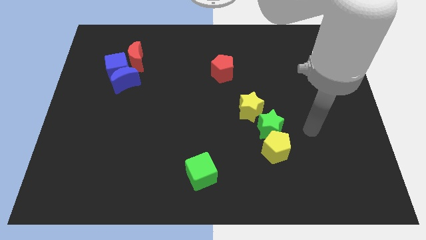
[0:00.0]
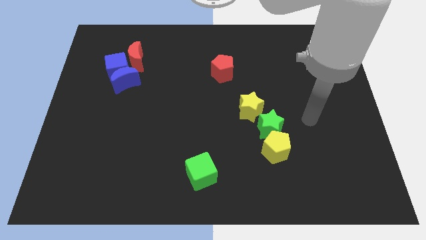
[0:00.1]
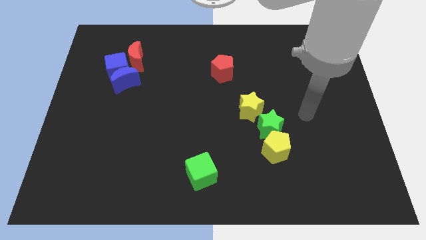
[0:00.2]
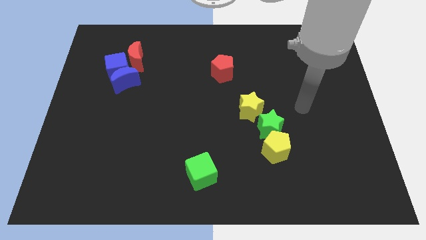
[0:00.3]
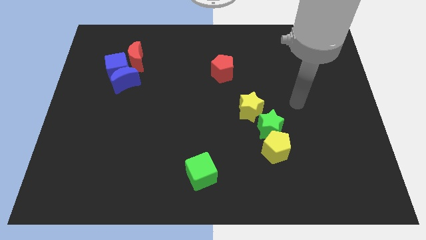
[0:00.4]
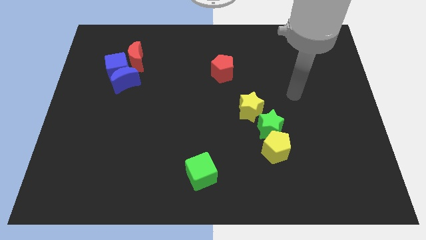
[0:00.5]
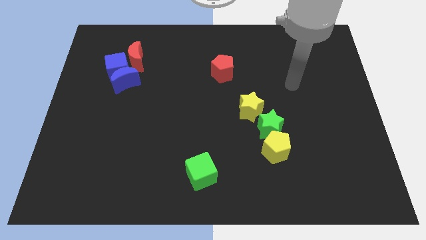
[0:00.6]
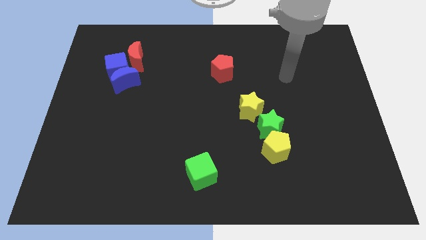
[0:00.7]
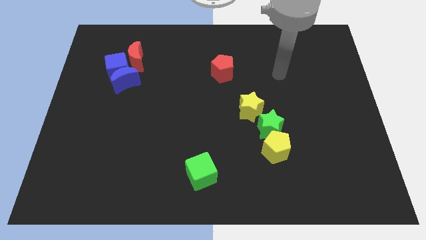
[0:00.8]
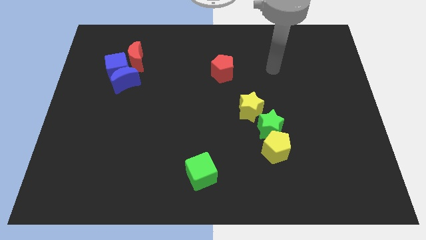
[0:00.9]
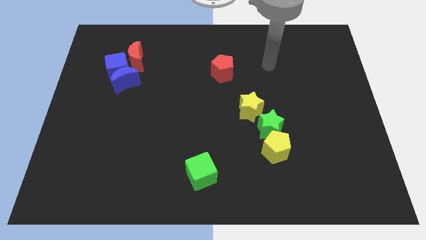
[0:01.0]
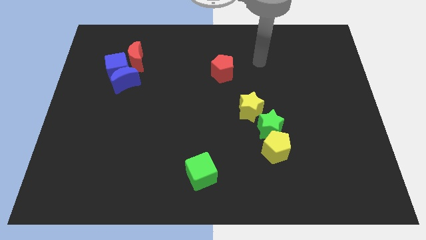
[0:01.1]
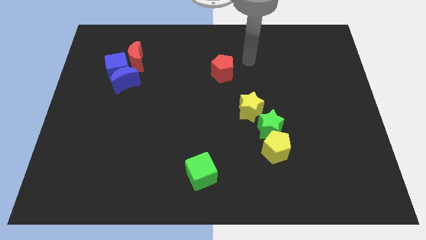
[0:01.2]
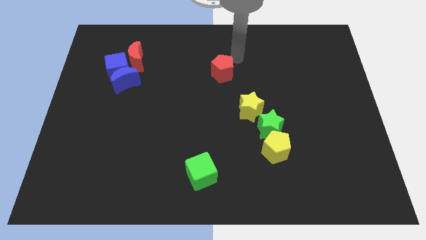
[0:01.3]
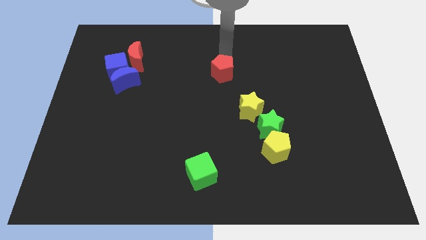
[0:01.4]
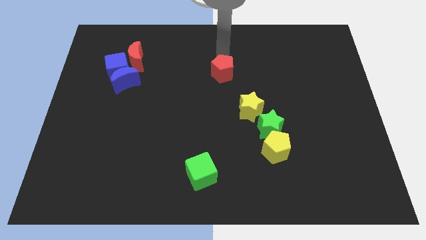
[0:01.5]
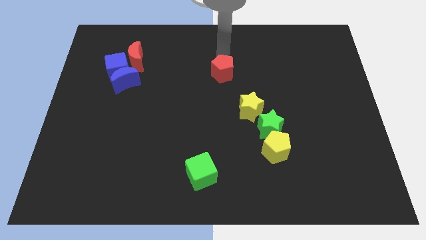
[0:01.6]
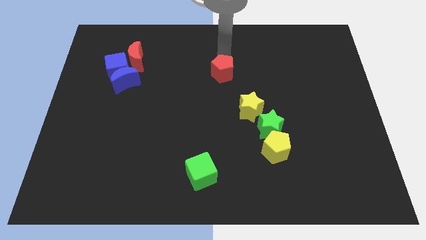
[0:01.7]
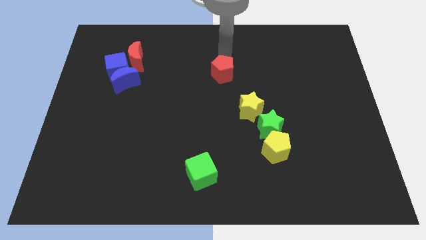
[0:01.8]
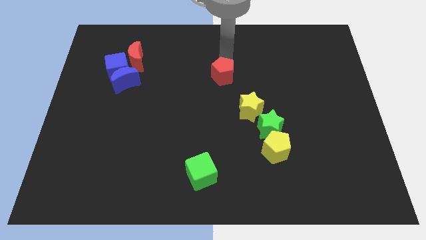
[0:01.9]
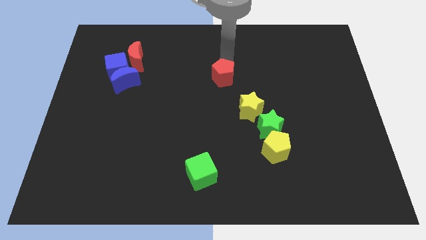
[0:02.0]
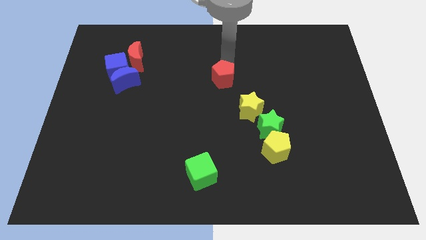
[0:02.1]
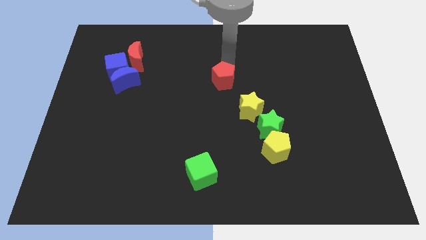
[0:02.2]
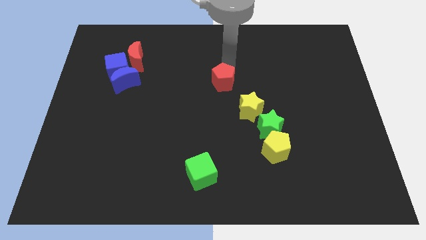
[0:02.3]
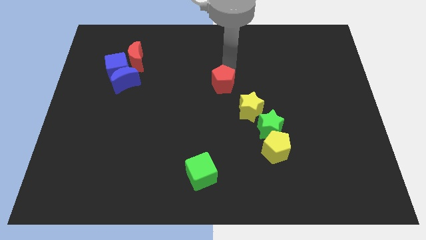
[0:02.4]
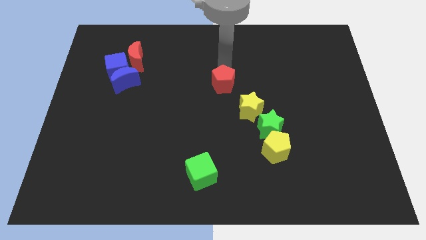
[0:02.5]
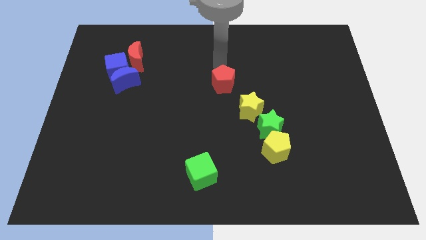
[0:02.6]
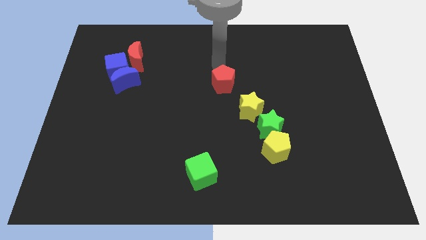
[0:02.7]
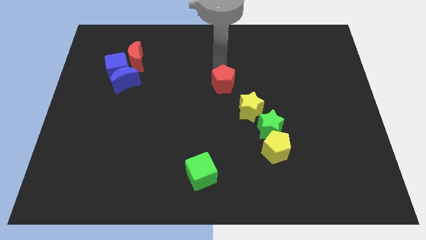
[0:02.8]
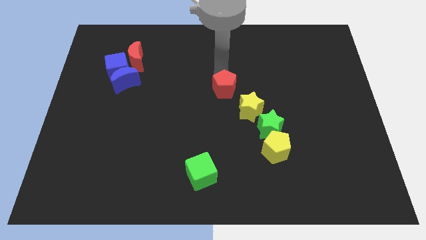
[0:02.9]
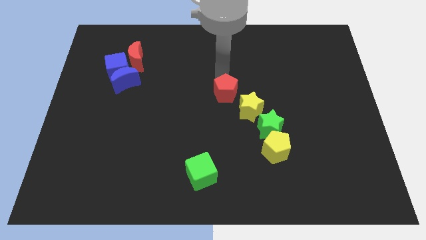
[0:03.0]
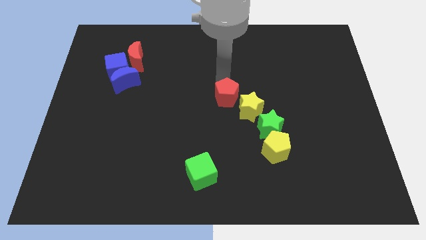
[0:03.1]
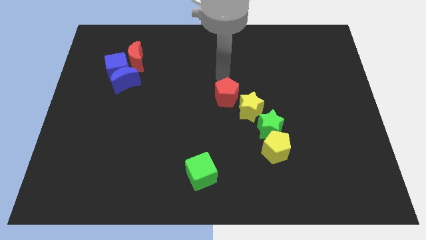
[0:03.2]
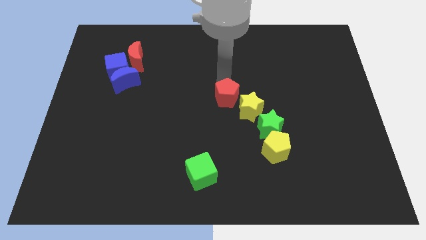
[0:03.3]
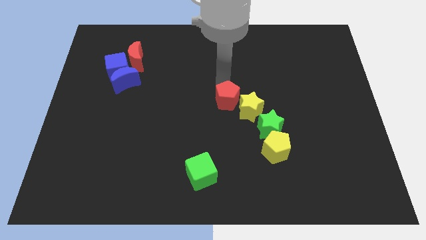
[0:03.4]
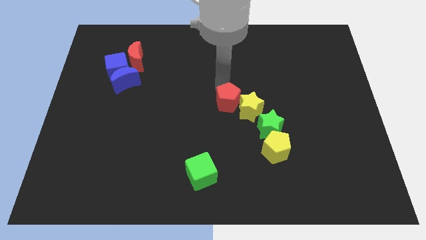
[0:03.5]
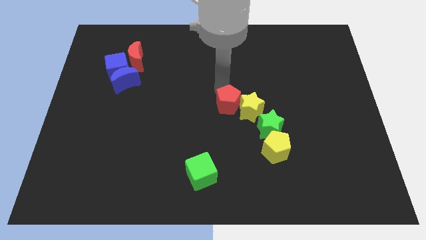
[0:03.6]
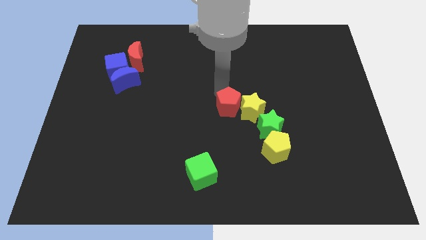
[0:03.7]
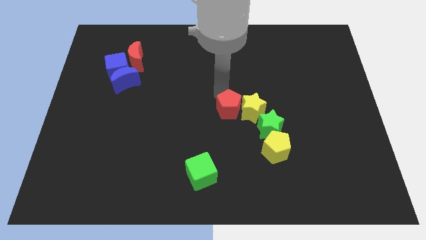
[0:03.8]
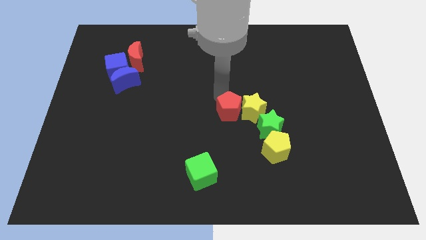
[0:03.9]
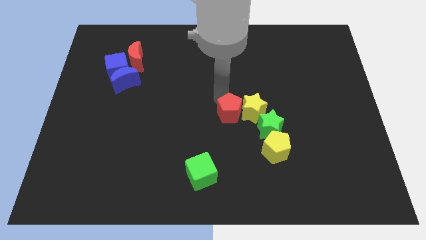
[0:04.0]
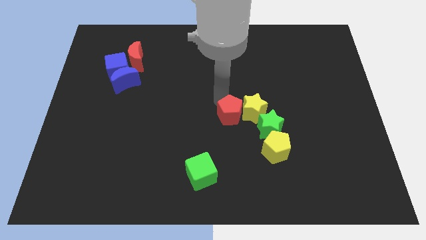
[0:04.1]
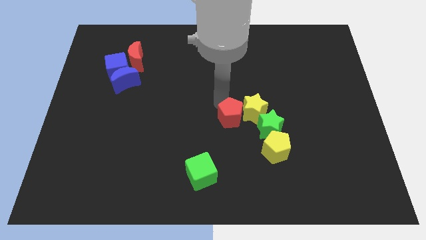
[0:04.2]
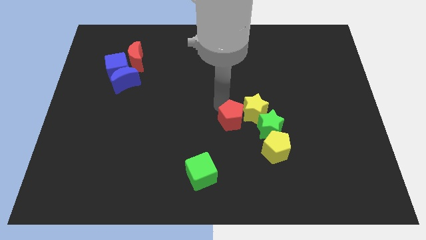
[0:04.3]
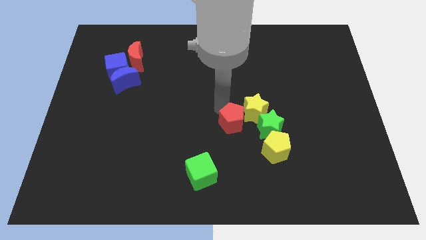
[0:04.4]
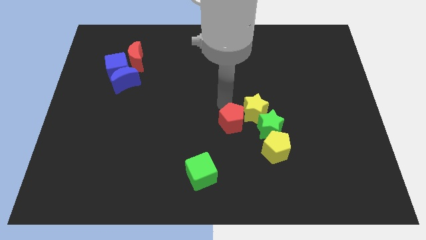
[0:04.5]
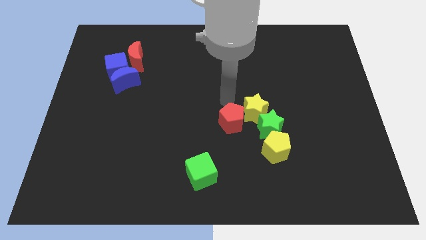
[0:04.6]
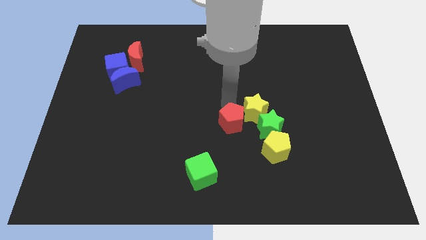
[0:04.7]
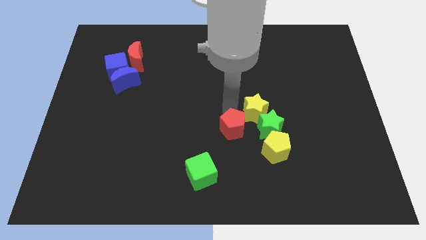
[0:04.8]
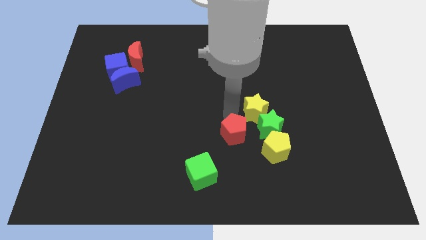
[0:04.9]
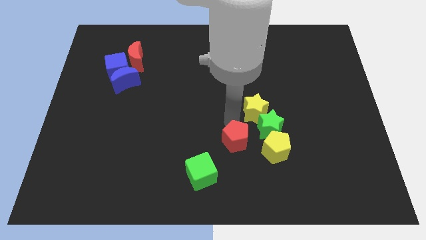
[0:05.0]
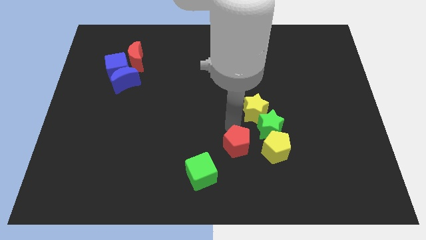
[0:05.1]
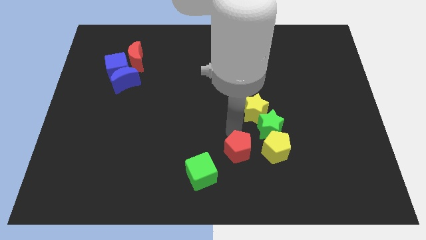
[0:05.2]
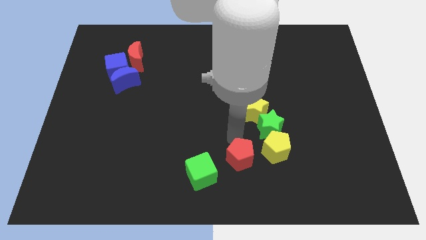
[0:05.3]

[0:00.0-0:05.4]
move the red pentagon right of the green cube

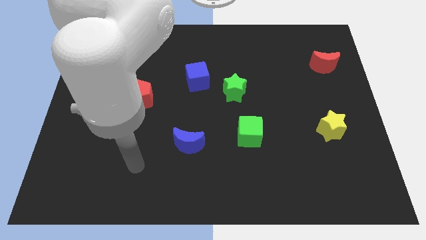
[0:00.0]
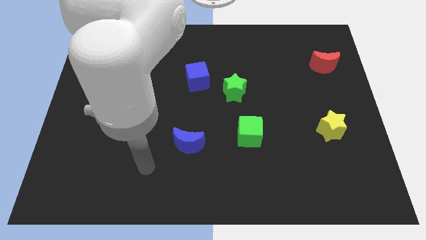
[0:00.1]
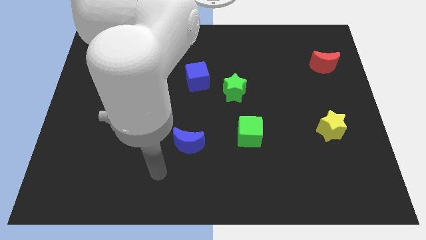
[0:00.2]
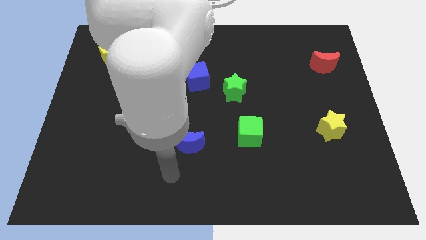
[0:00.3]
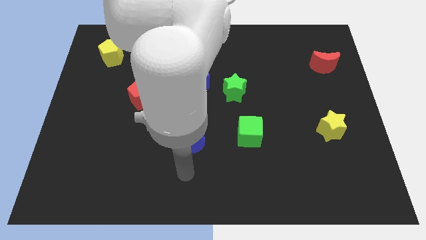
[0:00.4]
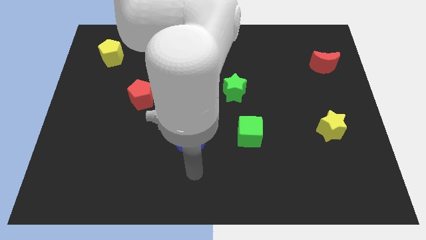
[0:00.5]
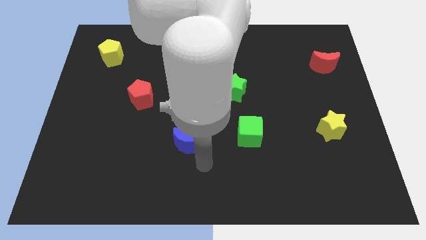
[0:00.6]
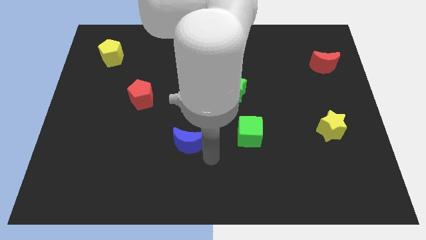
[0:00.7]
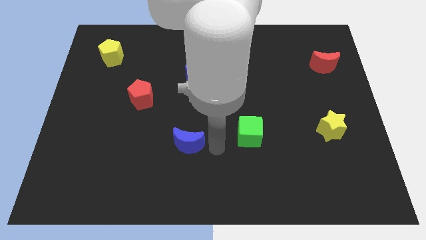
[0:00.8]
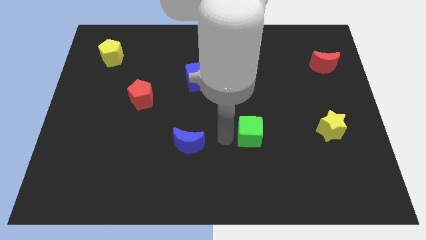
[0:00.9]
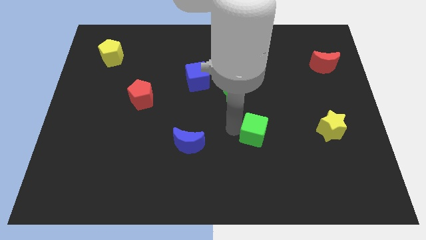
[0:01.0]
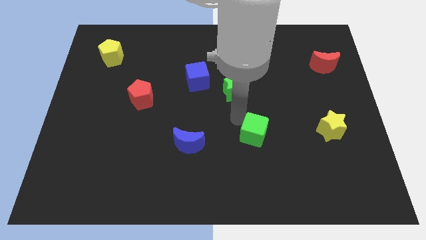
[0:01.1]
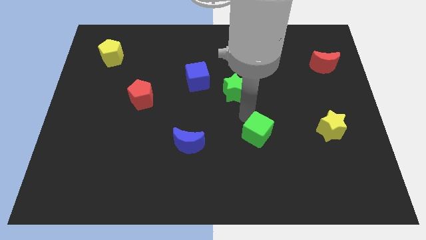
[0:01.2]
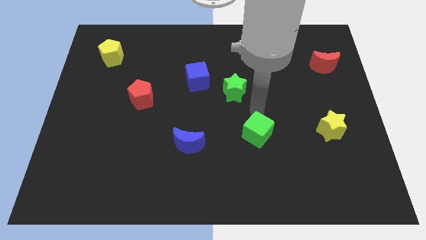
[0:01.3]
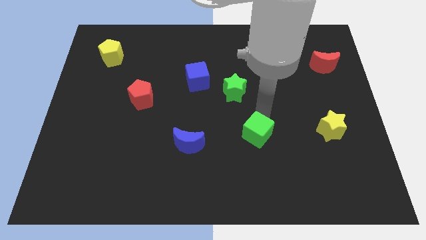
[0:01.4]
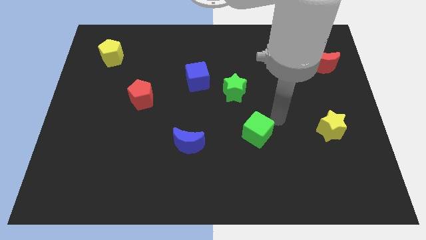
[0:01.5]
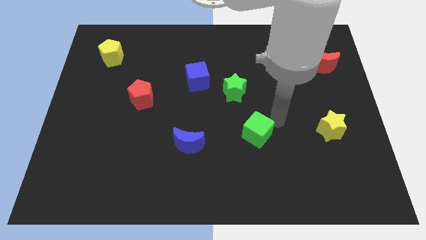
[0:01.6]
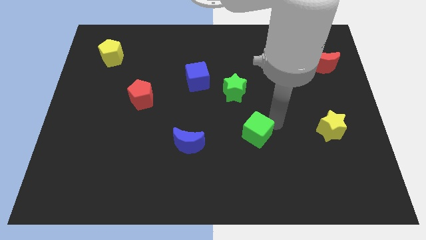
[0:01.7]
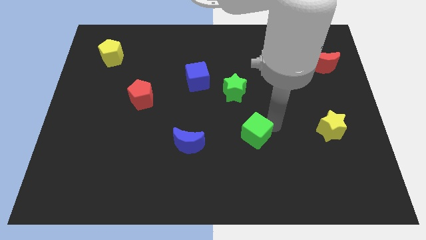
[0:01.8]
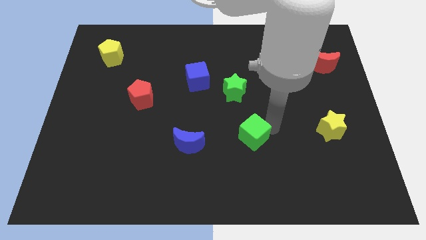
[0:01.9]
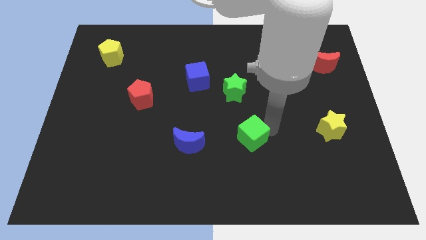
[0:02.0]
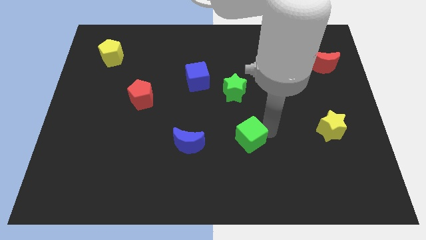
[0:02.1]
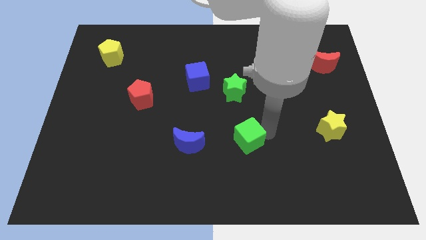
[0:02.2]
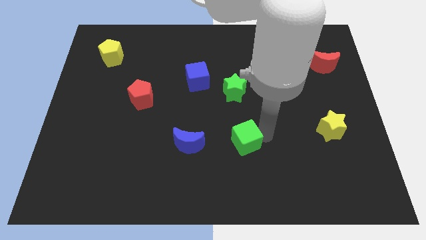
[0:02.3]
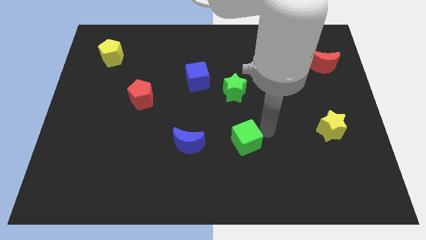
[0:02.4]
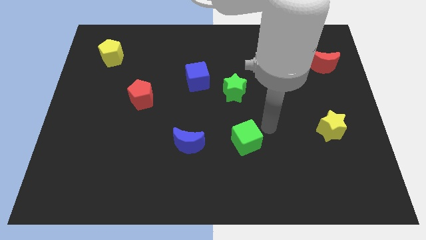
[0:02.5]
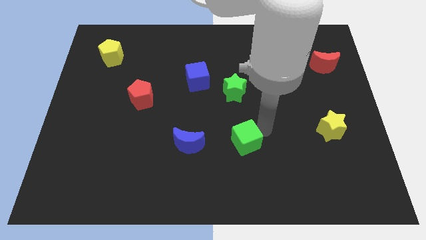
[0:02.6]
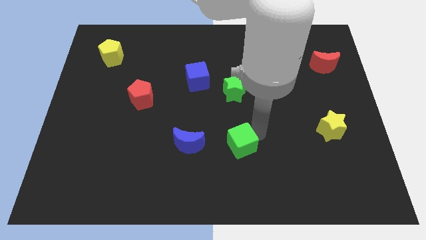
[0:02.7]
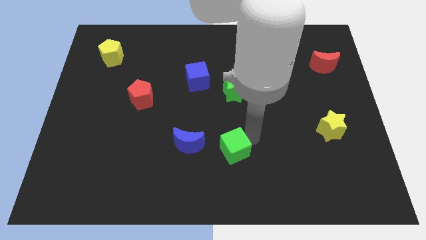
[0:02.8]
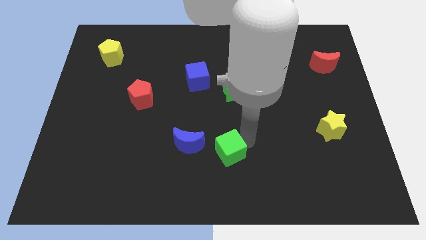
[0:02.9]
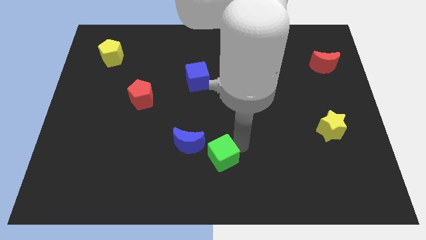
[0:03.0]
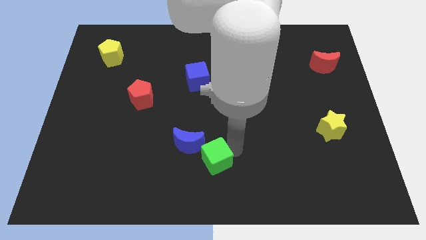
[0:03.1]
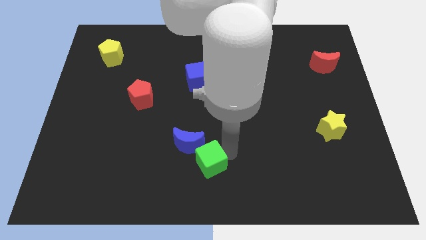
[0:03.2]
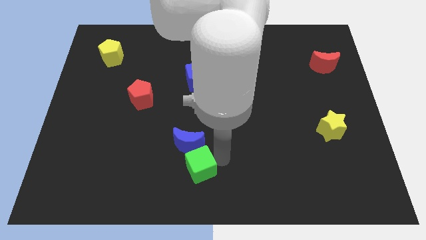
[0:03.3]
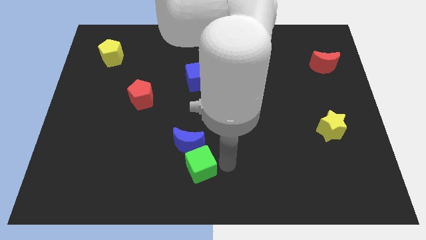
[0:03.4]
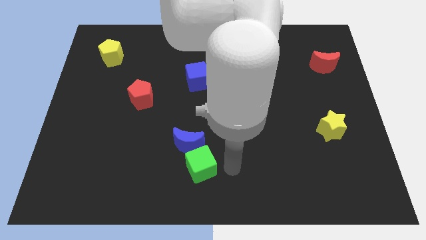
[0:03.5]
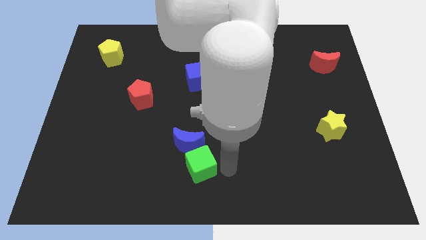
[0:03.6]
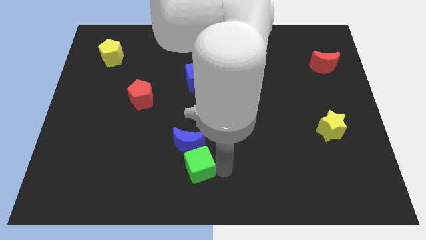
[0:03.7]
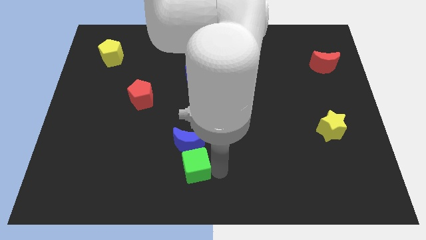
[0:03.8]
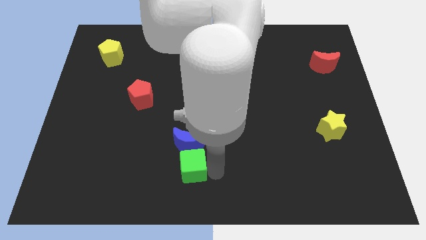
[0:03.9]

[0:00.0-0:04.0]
move the green cube to the bottom left of the blue moon
